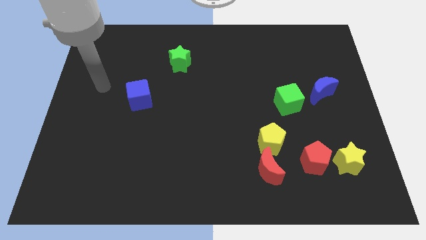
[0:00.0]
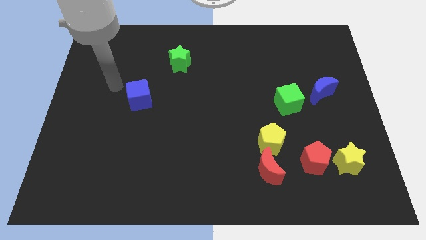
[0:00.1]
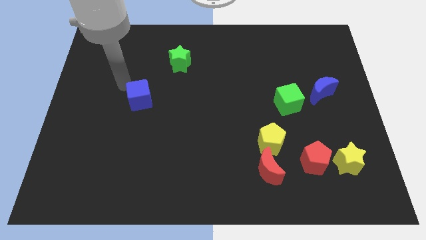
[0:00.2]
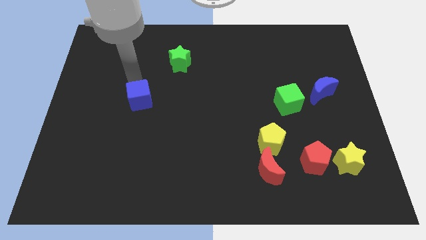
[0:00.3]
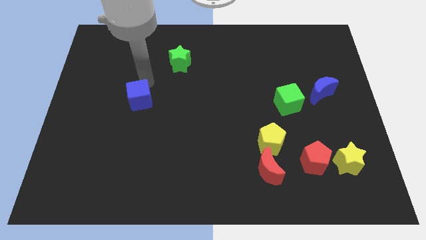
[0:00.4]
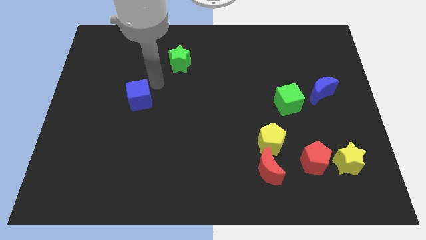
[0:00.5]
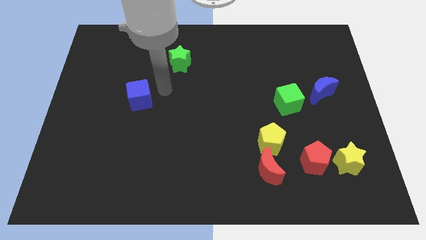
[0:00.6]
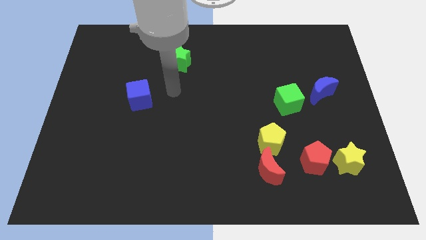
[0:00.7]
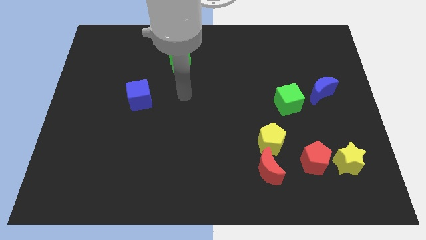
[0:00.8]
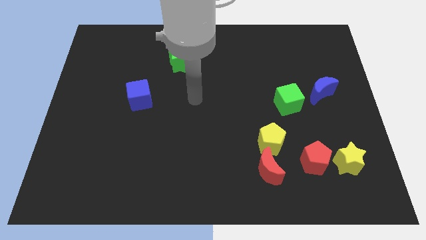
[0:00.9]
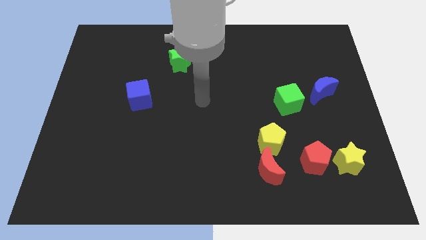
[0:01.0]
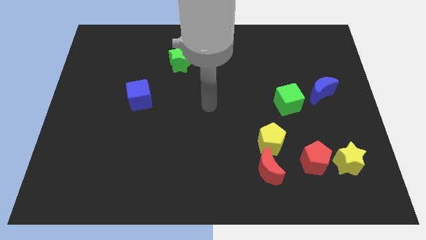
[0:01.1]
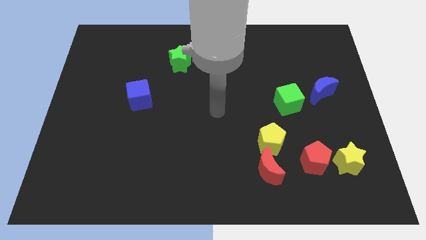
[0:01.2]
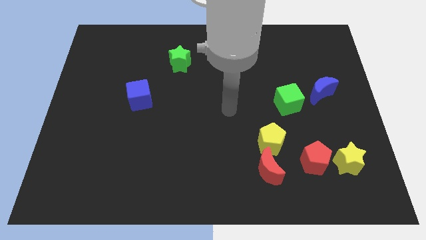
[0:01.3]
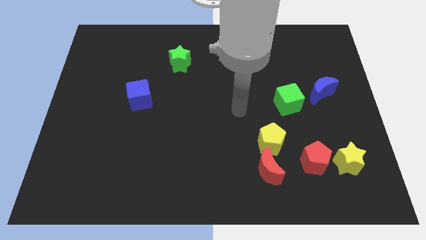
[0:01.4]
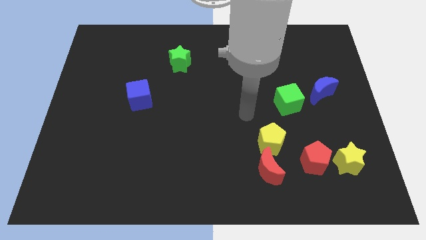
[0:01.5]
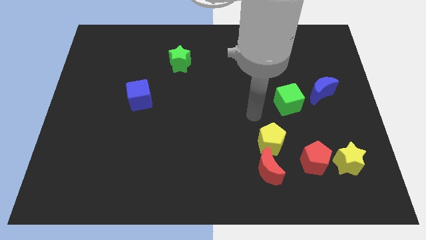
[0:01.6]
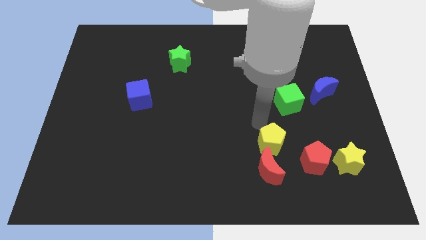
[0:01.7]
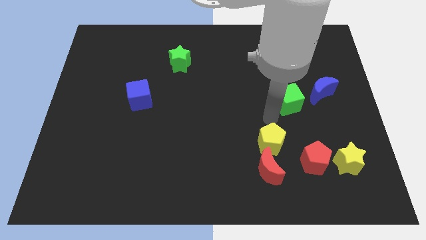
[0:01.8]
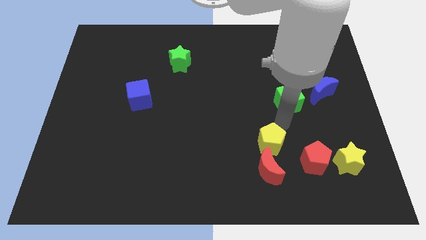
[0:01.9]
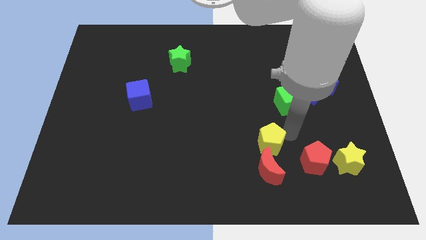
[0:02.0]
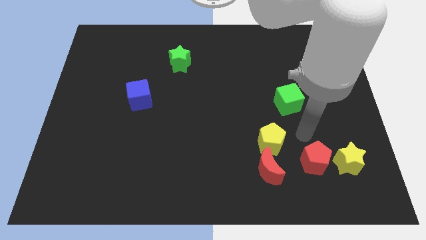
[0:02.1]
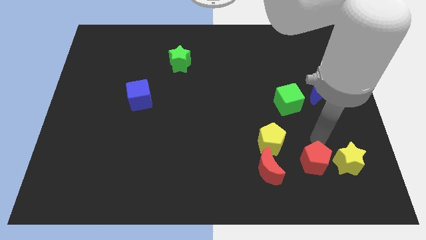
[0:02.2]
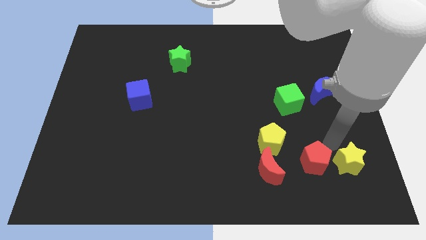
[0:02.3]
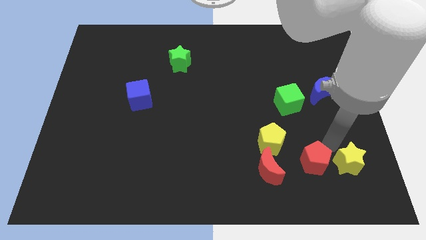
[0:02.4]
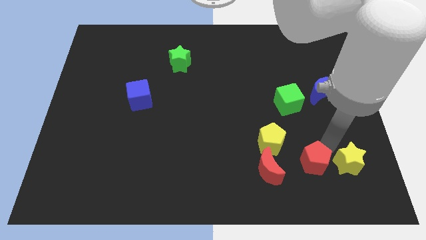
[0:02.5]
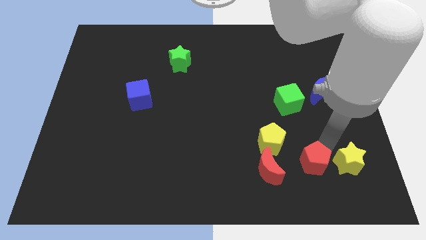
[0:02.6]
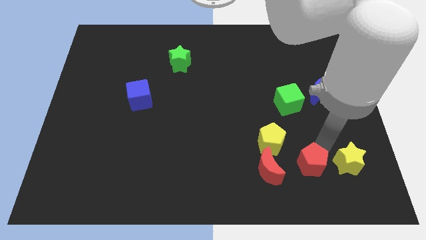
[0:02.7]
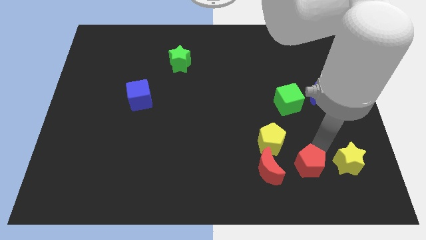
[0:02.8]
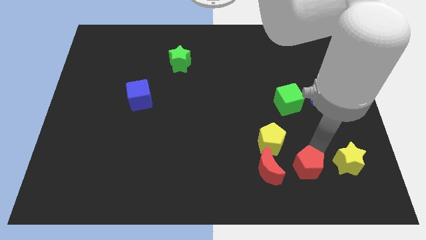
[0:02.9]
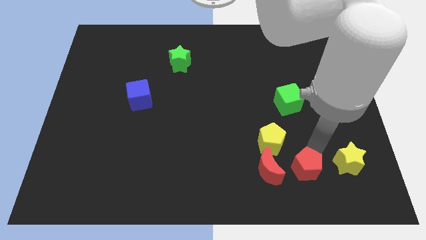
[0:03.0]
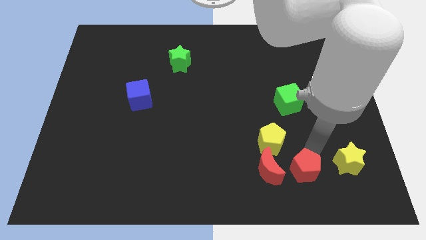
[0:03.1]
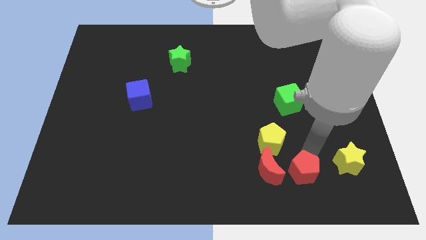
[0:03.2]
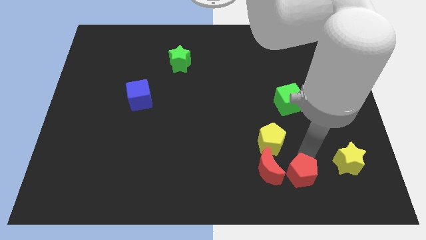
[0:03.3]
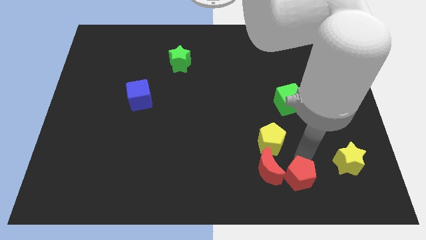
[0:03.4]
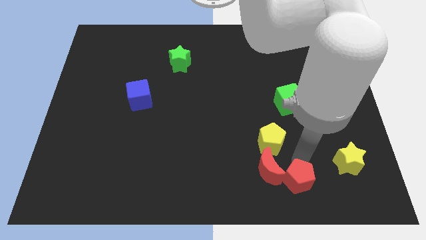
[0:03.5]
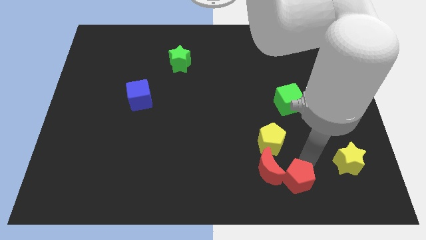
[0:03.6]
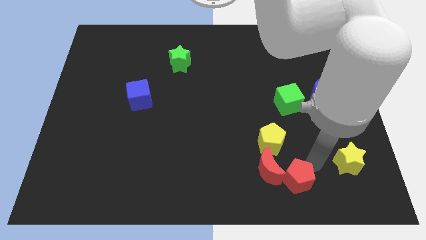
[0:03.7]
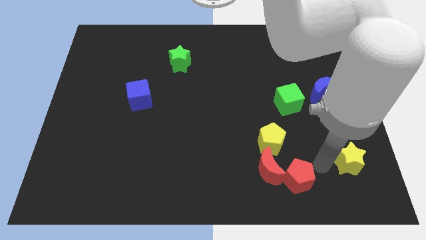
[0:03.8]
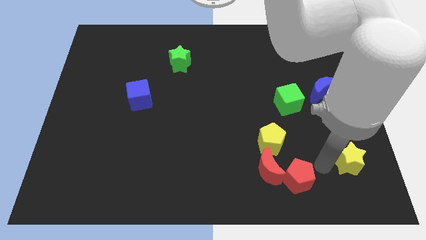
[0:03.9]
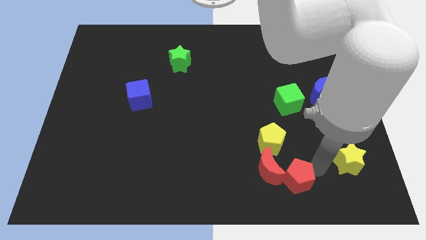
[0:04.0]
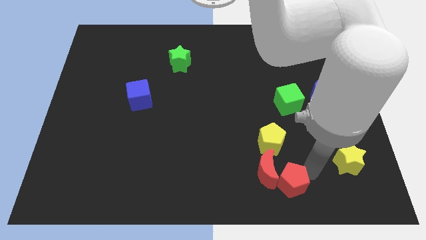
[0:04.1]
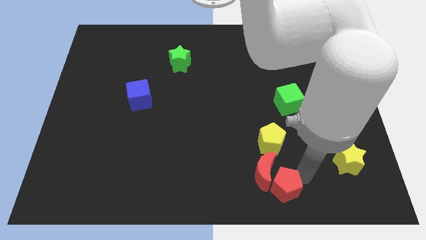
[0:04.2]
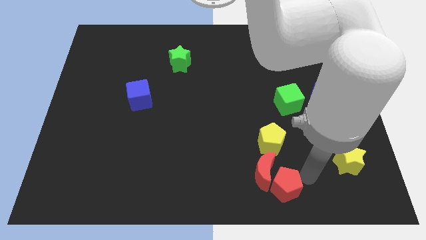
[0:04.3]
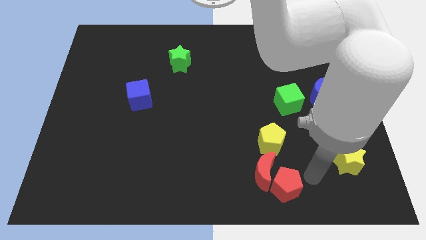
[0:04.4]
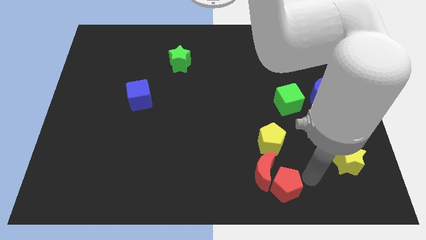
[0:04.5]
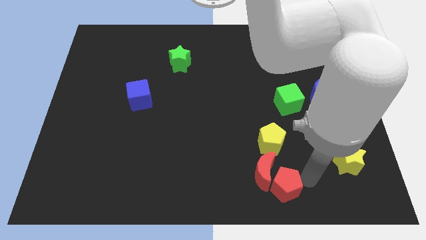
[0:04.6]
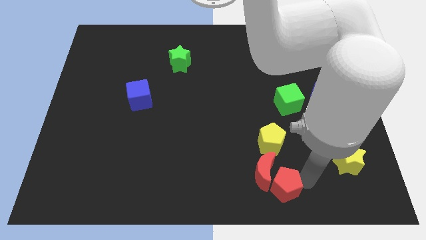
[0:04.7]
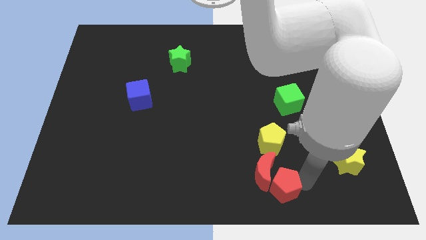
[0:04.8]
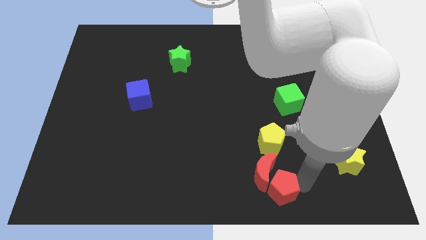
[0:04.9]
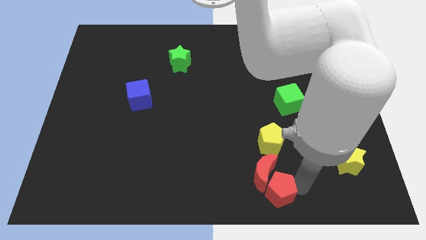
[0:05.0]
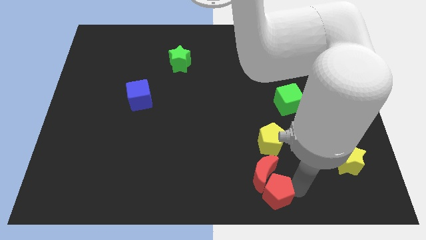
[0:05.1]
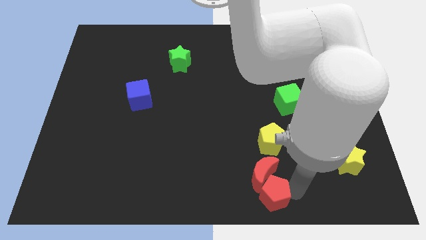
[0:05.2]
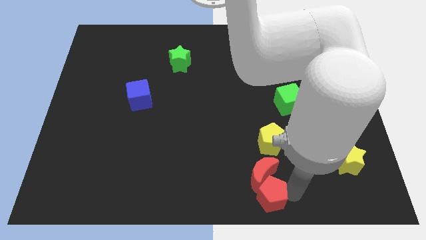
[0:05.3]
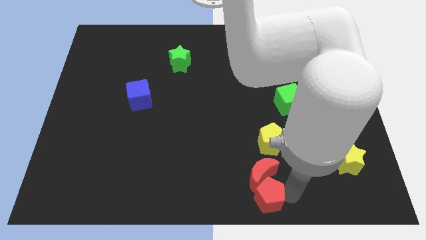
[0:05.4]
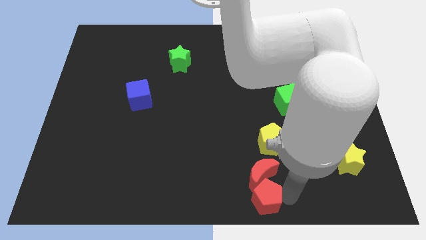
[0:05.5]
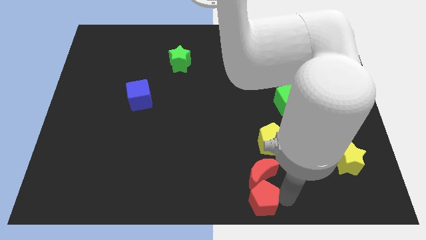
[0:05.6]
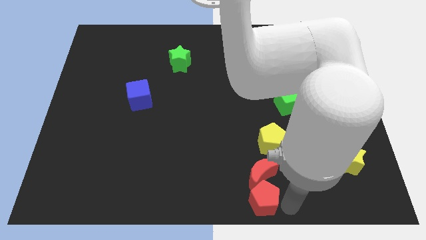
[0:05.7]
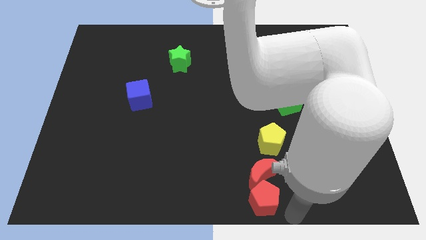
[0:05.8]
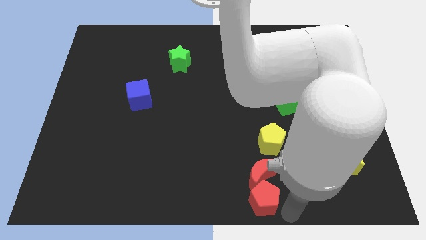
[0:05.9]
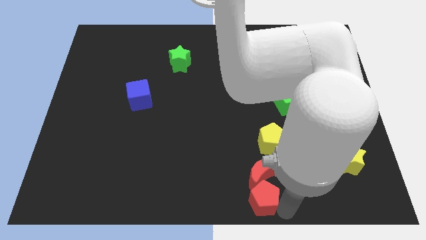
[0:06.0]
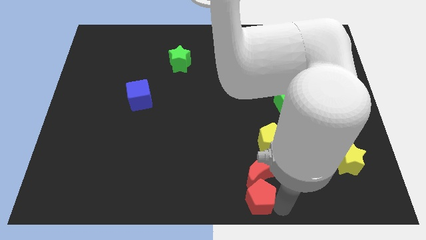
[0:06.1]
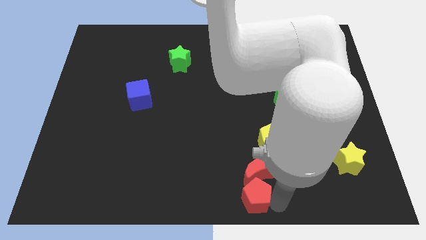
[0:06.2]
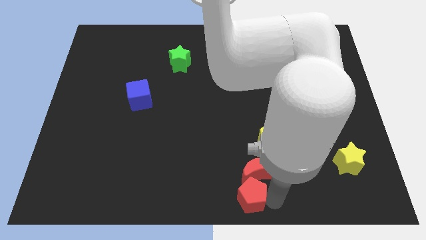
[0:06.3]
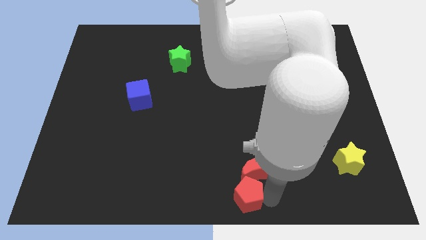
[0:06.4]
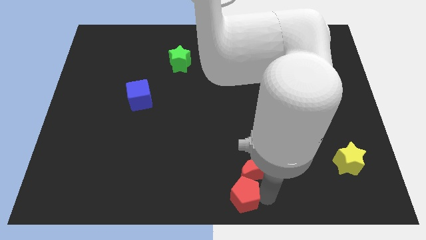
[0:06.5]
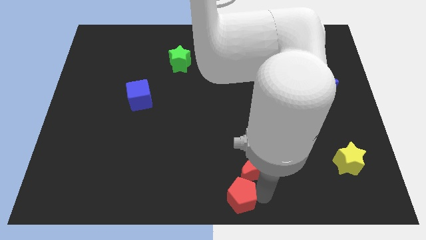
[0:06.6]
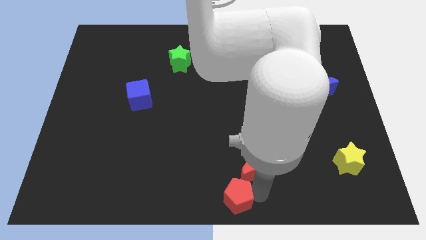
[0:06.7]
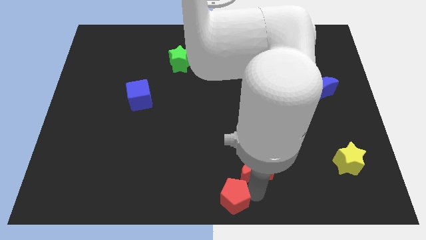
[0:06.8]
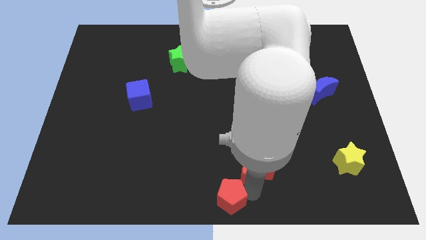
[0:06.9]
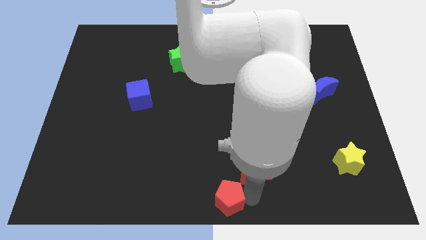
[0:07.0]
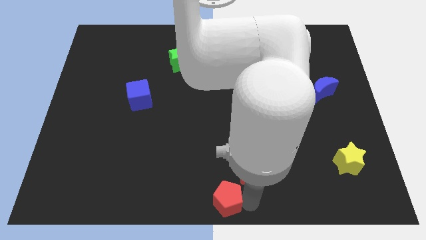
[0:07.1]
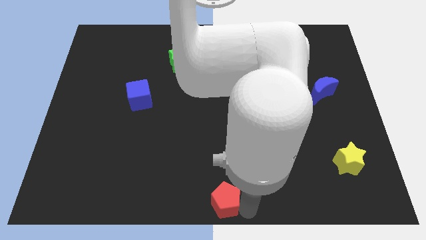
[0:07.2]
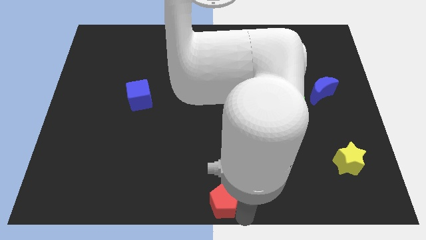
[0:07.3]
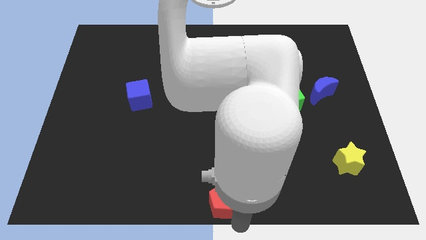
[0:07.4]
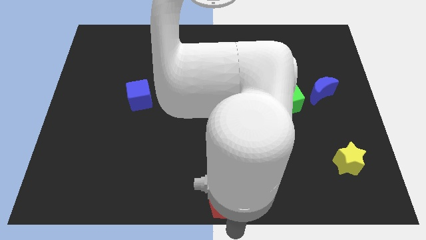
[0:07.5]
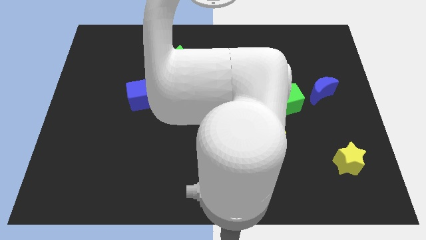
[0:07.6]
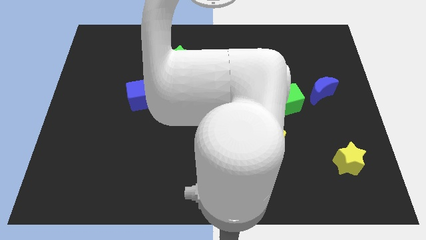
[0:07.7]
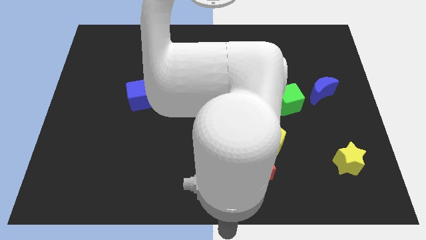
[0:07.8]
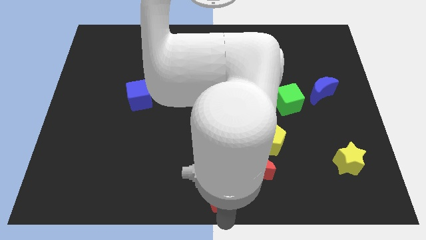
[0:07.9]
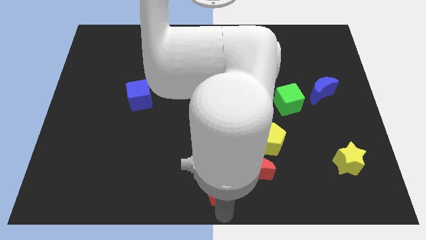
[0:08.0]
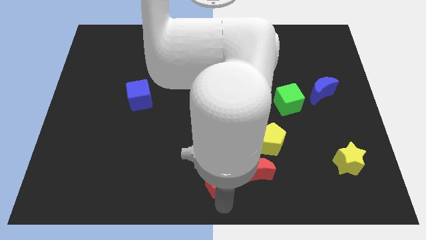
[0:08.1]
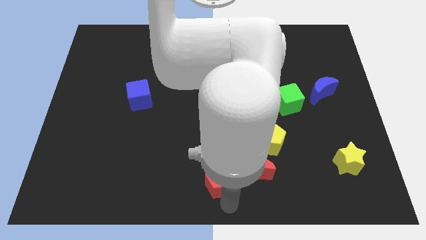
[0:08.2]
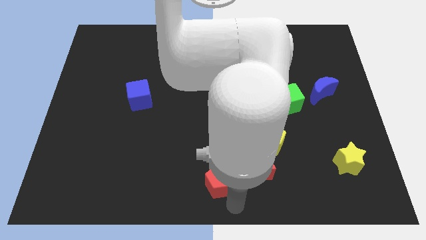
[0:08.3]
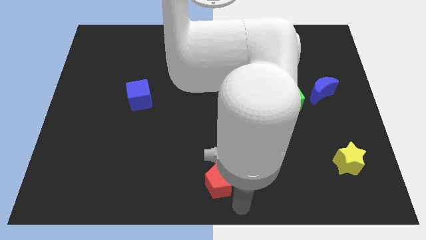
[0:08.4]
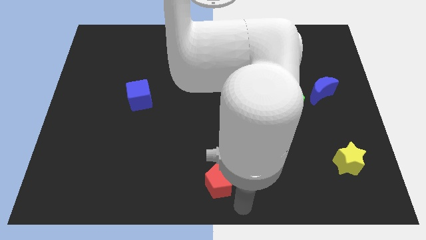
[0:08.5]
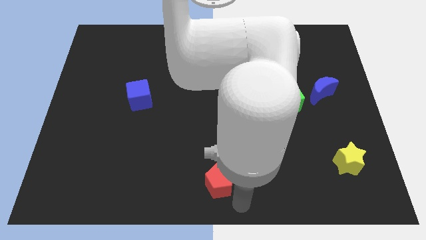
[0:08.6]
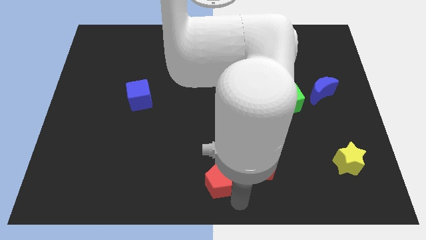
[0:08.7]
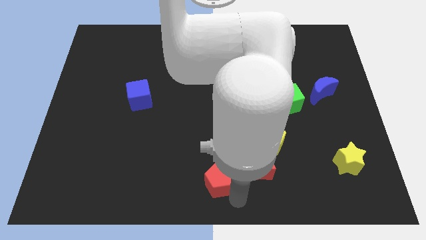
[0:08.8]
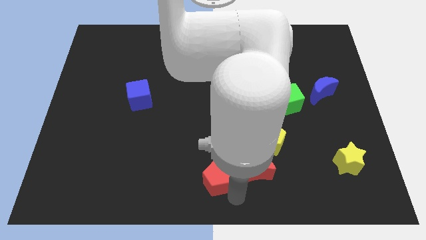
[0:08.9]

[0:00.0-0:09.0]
move the red pentagon to the left
